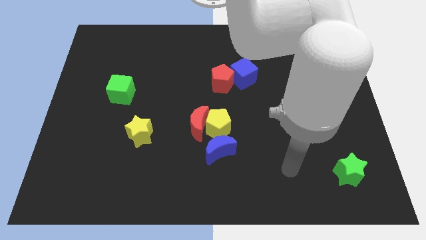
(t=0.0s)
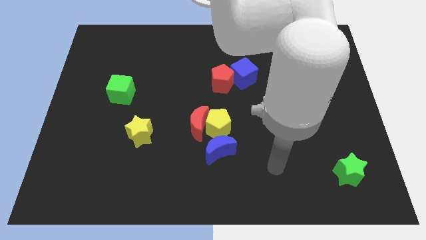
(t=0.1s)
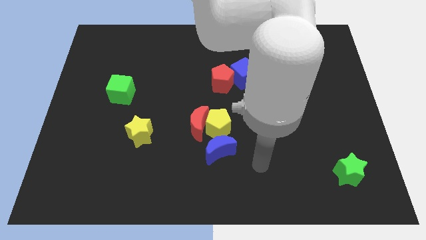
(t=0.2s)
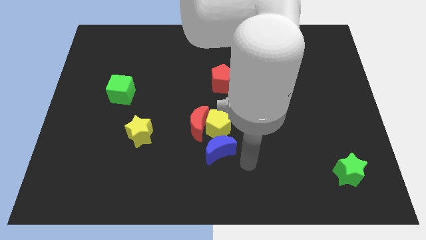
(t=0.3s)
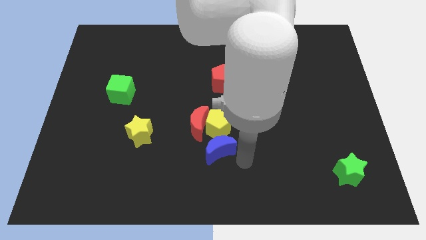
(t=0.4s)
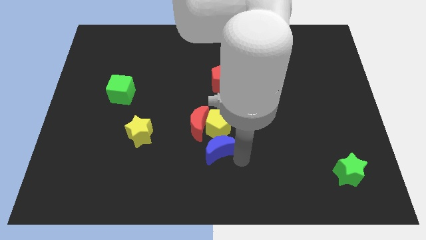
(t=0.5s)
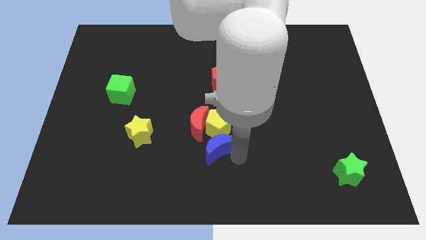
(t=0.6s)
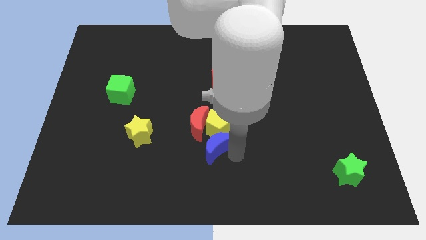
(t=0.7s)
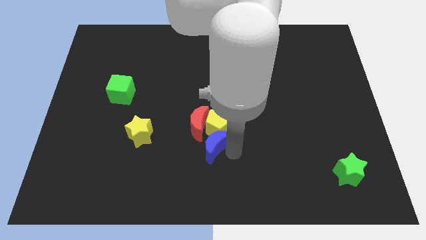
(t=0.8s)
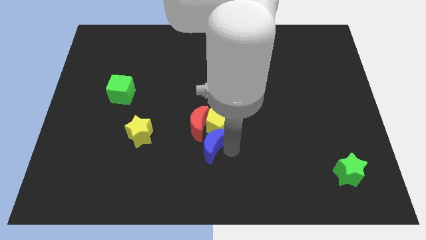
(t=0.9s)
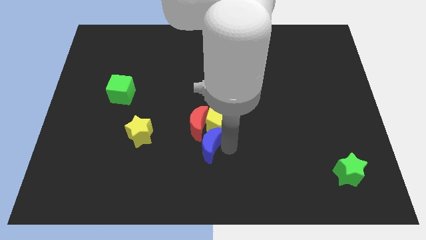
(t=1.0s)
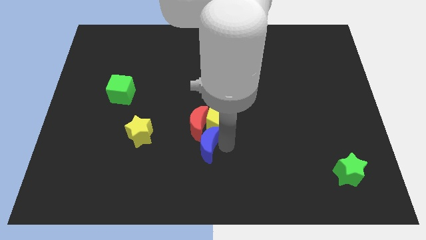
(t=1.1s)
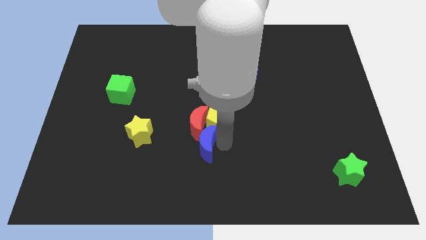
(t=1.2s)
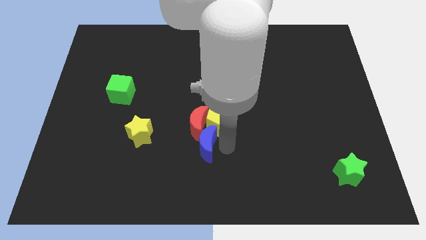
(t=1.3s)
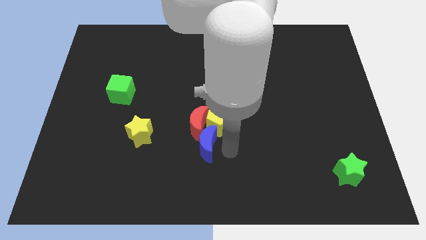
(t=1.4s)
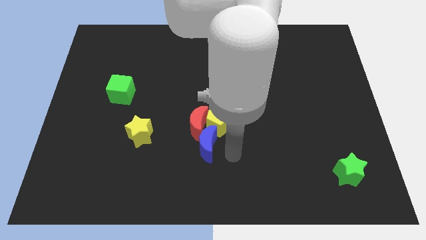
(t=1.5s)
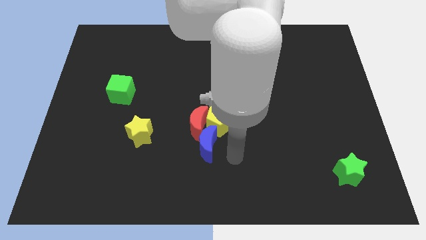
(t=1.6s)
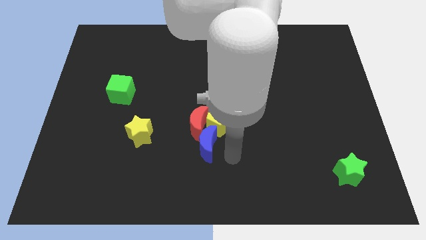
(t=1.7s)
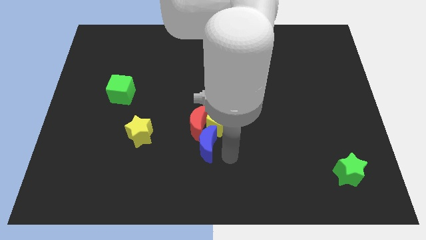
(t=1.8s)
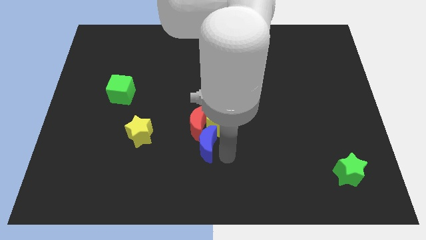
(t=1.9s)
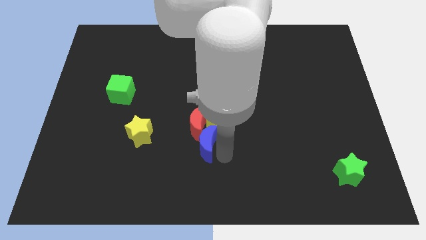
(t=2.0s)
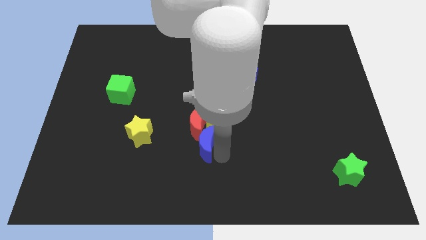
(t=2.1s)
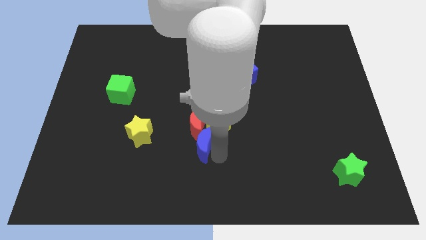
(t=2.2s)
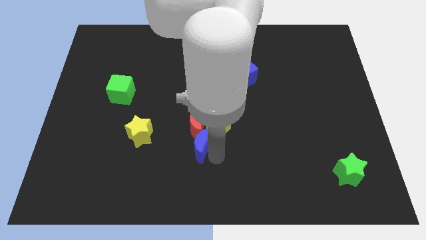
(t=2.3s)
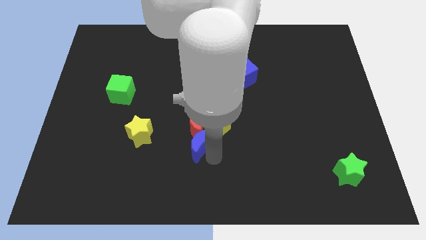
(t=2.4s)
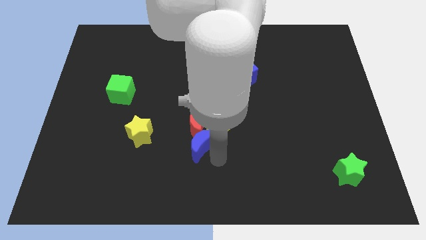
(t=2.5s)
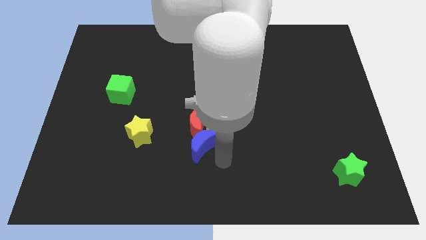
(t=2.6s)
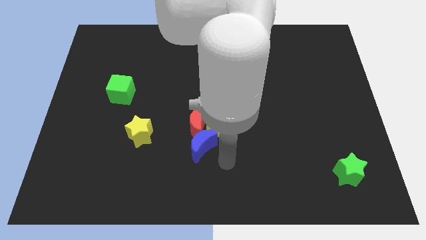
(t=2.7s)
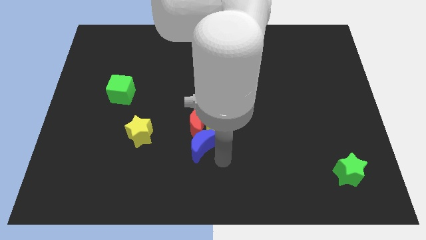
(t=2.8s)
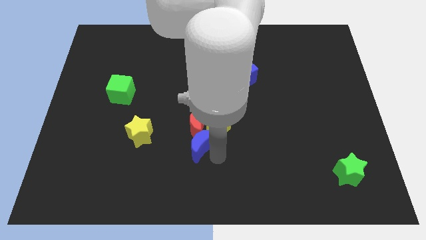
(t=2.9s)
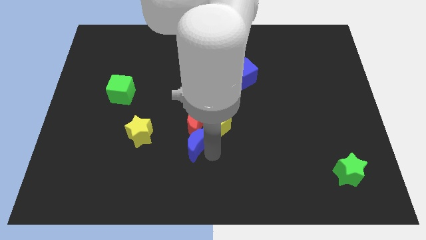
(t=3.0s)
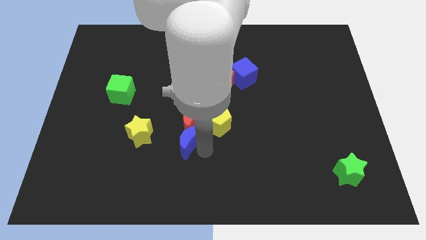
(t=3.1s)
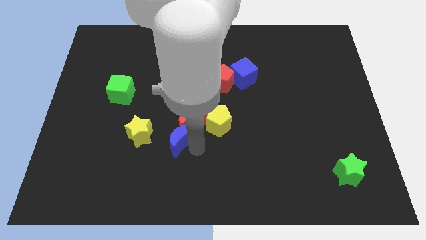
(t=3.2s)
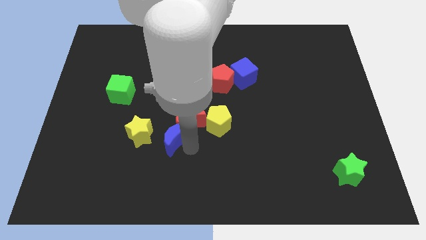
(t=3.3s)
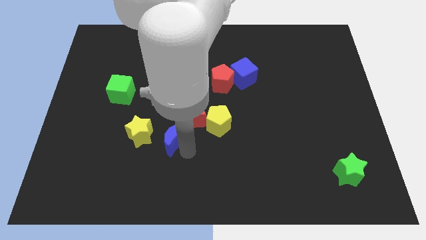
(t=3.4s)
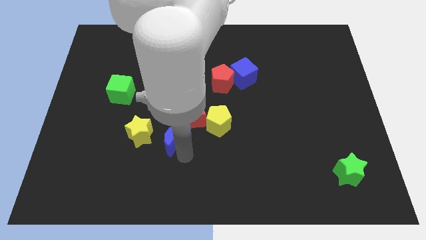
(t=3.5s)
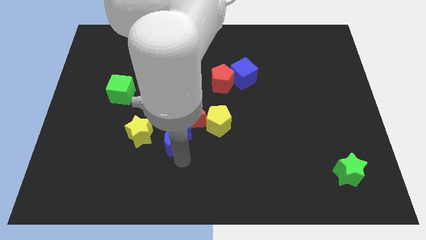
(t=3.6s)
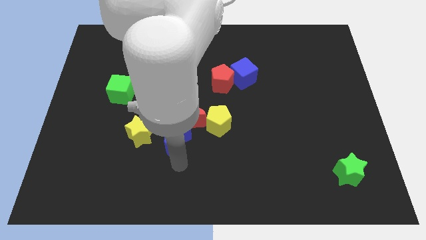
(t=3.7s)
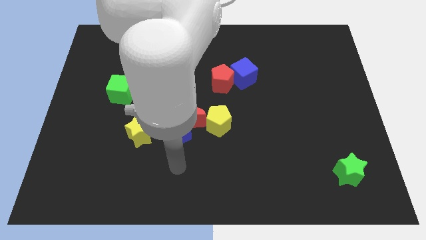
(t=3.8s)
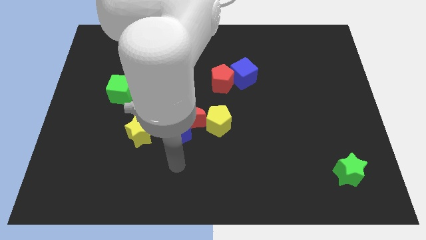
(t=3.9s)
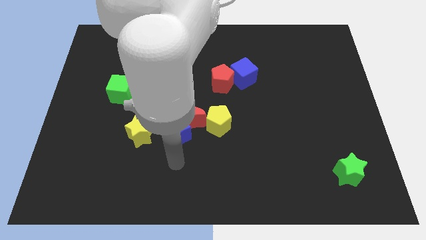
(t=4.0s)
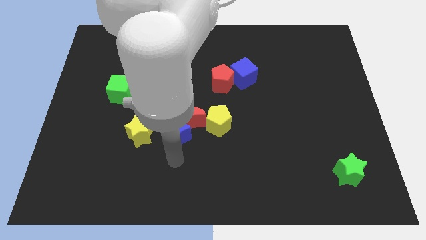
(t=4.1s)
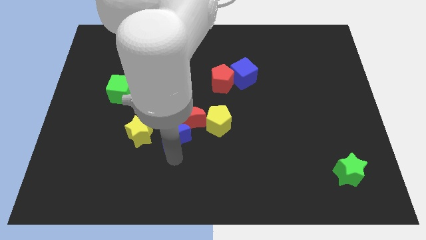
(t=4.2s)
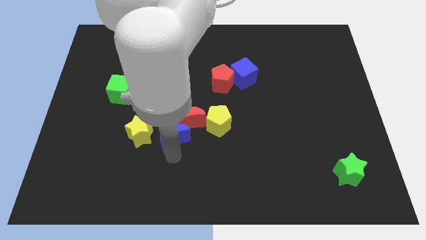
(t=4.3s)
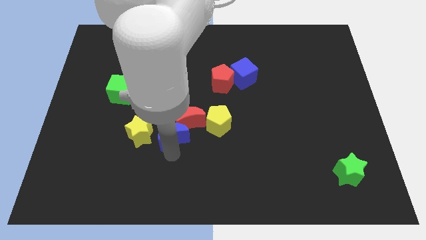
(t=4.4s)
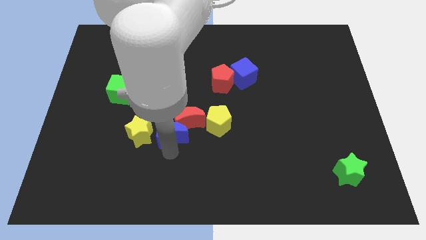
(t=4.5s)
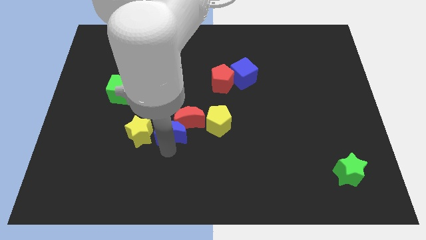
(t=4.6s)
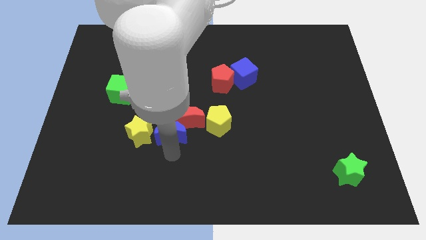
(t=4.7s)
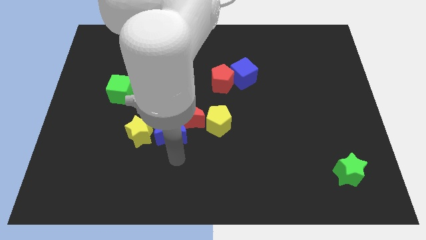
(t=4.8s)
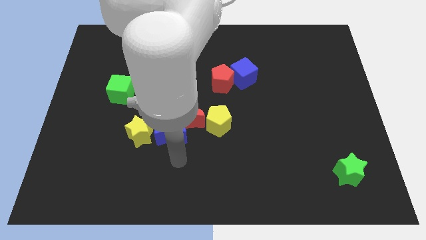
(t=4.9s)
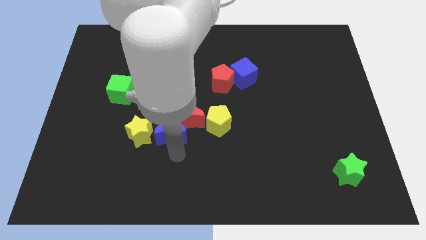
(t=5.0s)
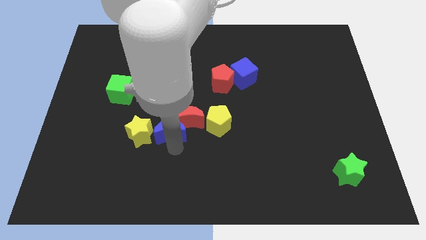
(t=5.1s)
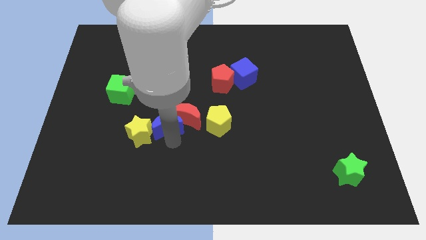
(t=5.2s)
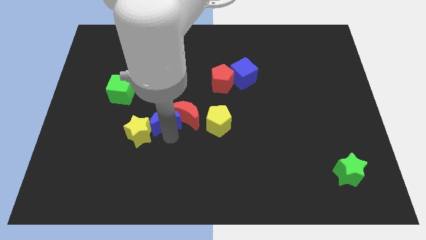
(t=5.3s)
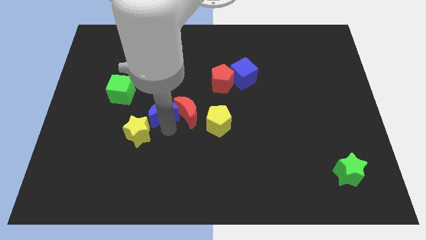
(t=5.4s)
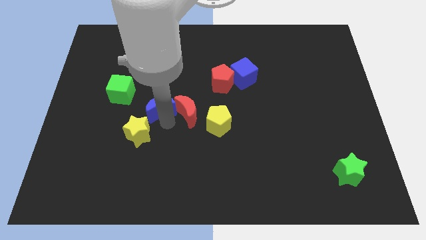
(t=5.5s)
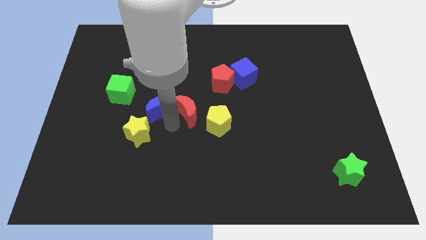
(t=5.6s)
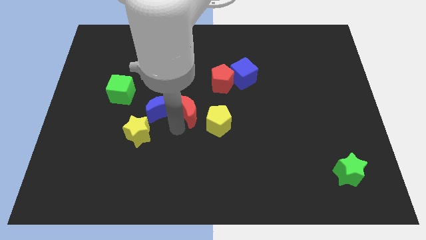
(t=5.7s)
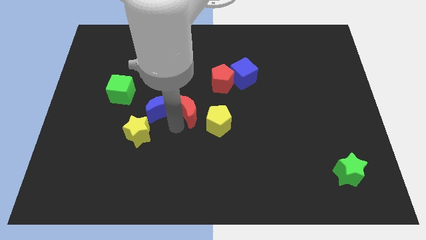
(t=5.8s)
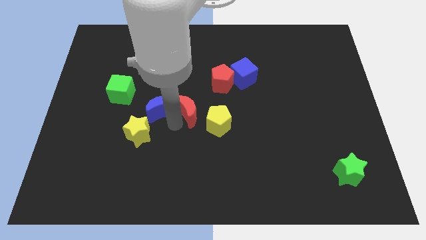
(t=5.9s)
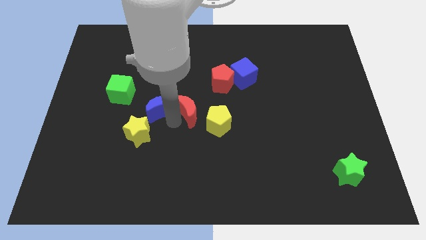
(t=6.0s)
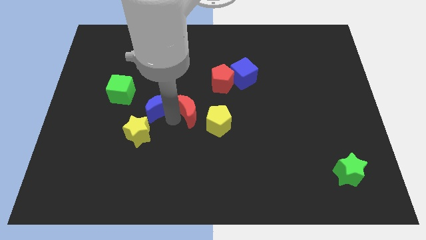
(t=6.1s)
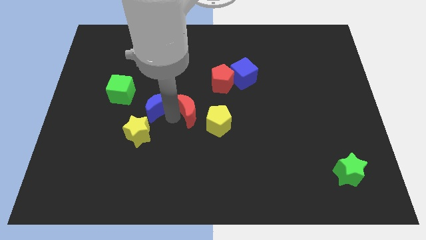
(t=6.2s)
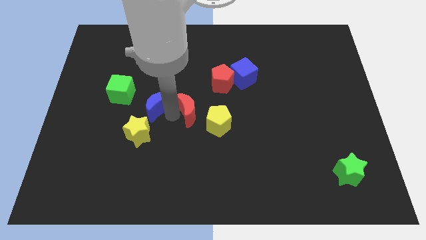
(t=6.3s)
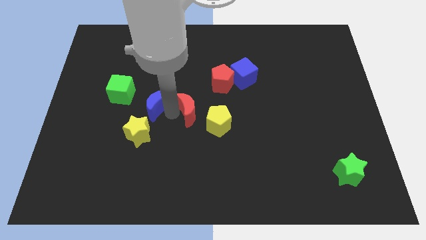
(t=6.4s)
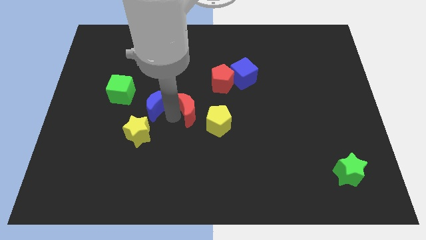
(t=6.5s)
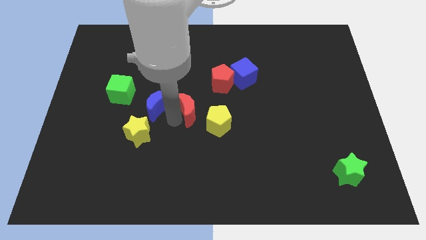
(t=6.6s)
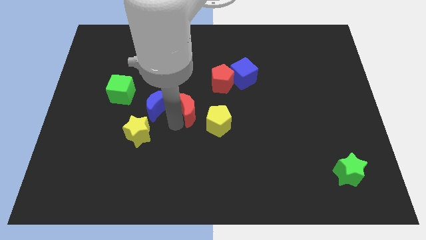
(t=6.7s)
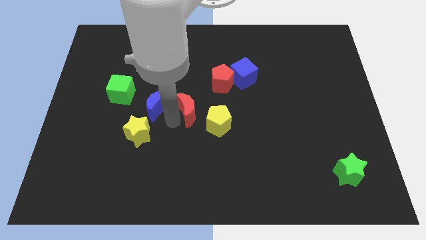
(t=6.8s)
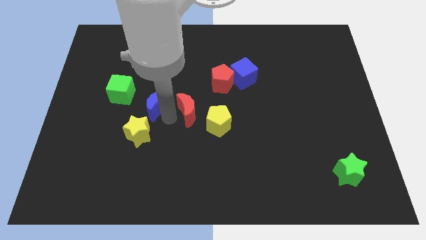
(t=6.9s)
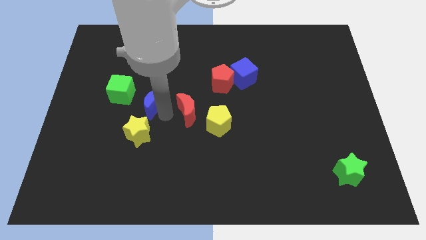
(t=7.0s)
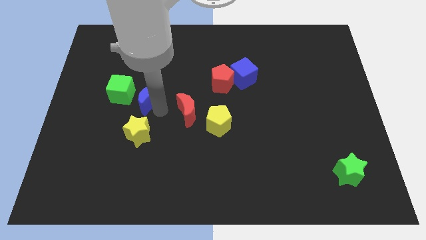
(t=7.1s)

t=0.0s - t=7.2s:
move the blue moon diagonally upwards and to the left

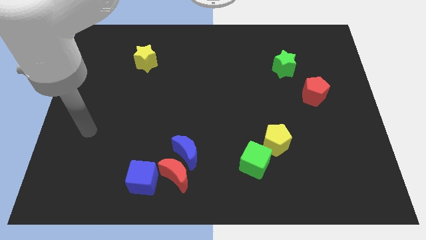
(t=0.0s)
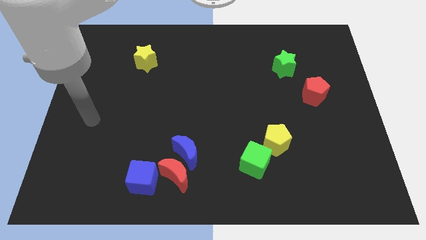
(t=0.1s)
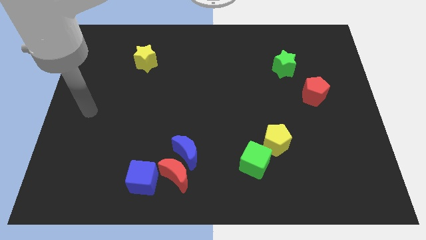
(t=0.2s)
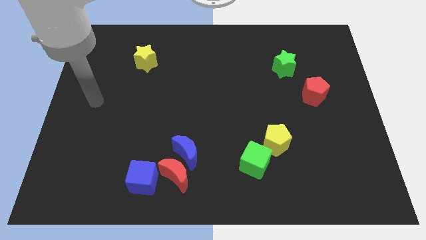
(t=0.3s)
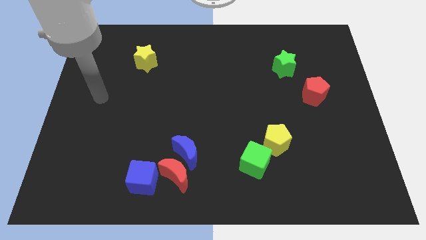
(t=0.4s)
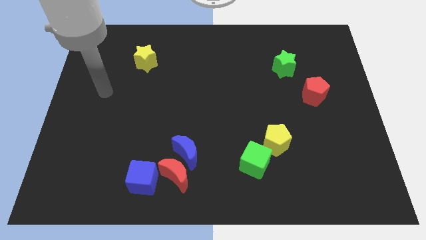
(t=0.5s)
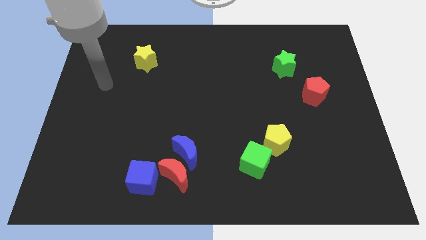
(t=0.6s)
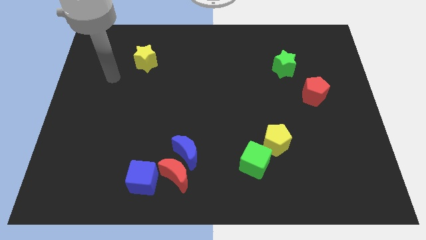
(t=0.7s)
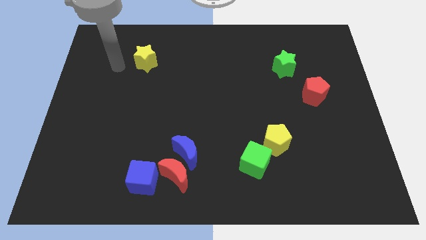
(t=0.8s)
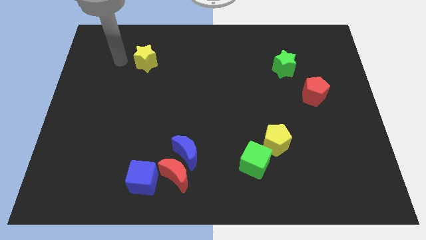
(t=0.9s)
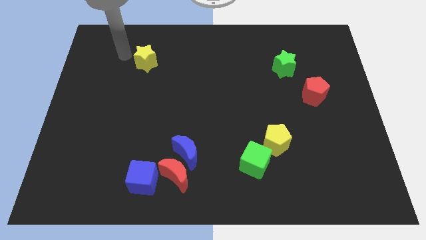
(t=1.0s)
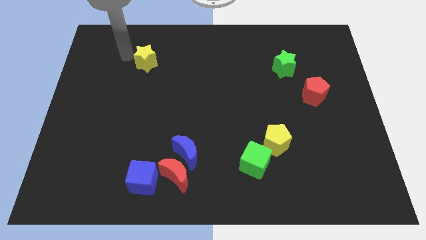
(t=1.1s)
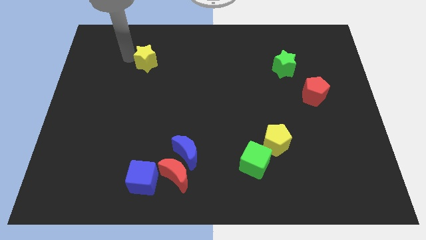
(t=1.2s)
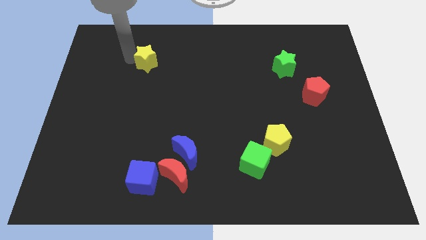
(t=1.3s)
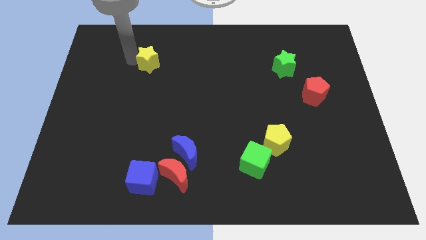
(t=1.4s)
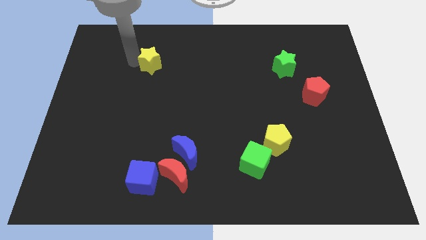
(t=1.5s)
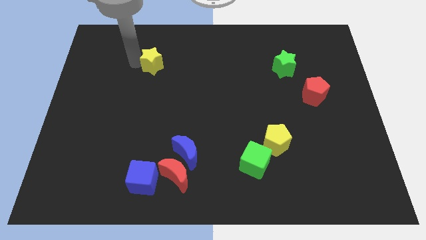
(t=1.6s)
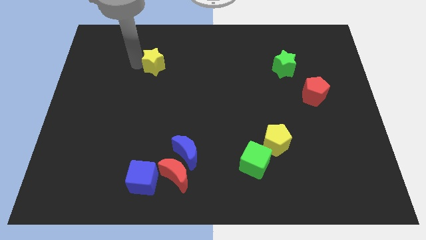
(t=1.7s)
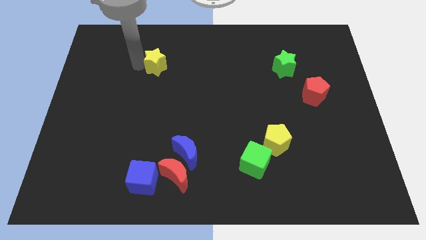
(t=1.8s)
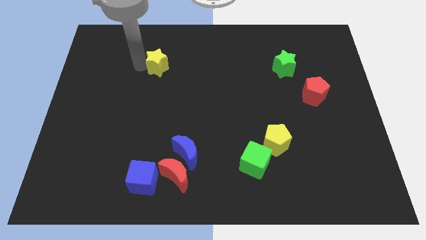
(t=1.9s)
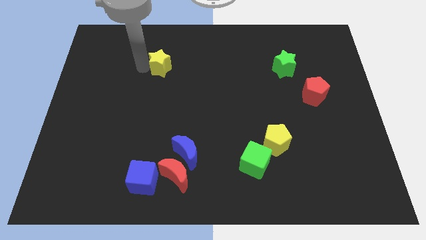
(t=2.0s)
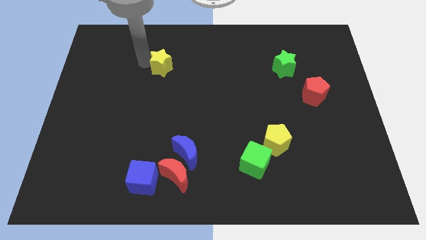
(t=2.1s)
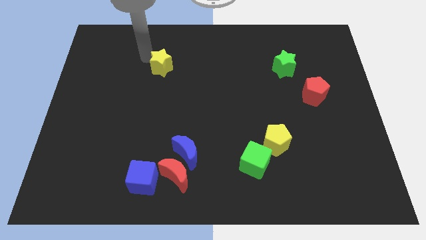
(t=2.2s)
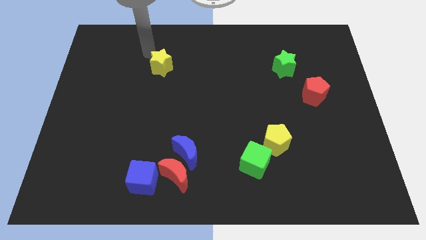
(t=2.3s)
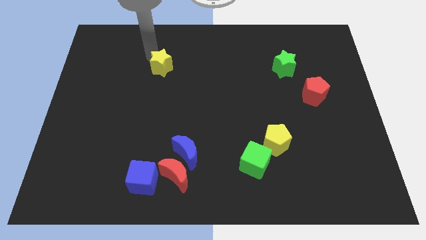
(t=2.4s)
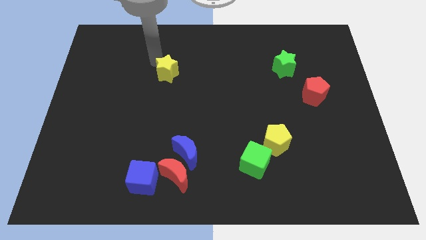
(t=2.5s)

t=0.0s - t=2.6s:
push the yellow star a little diagonally downwards and right
